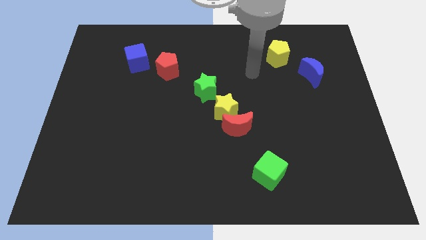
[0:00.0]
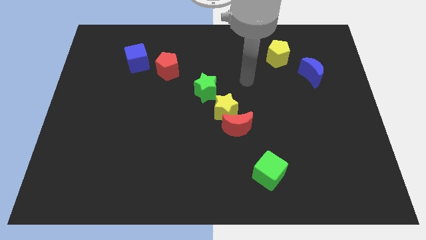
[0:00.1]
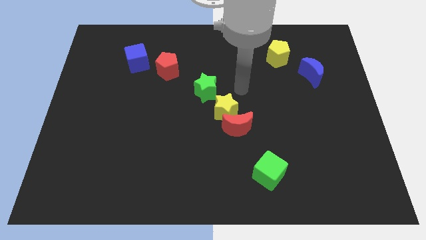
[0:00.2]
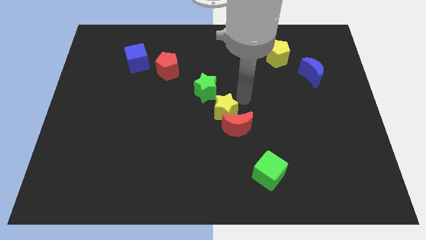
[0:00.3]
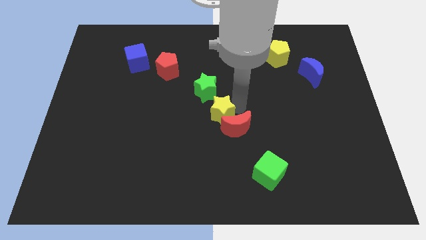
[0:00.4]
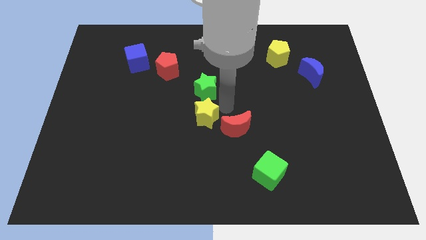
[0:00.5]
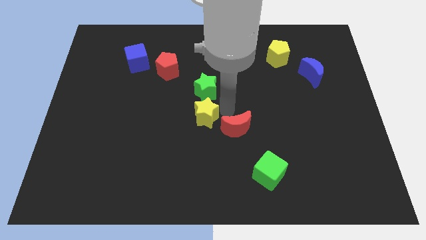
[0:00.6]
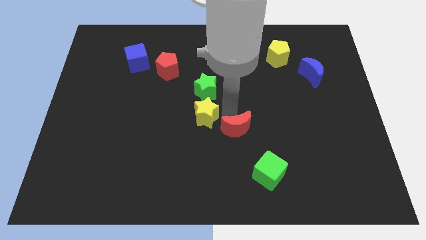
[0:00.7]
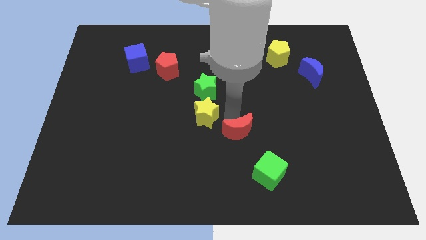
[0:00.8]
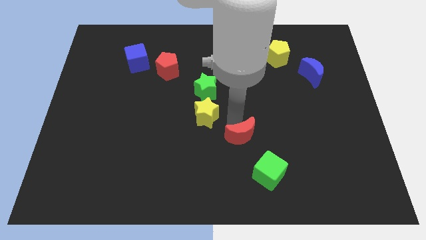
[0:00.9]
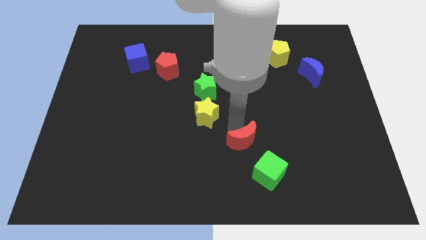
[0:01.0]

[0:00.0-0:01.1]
move the red moon away from the yellow star

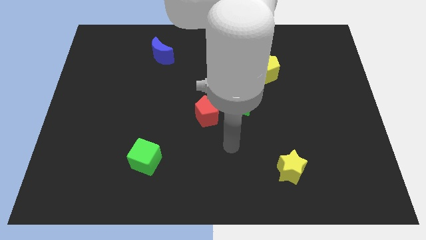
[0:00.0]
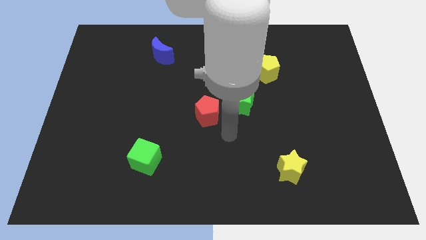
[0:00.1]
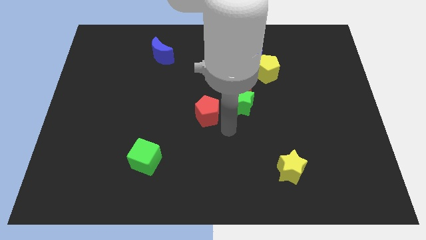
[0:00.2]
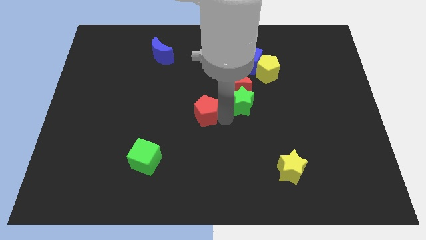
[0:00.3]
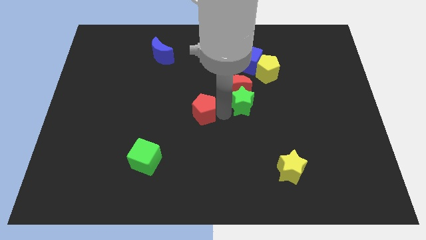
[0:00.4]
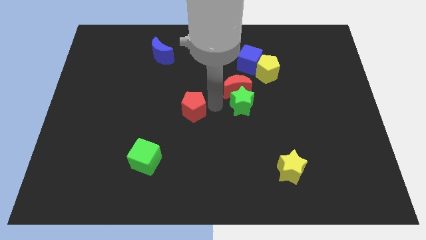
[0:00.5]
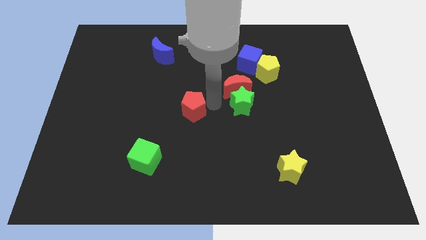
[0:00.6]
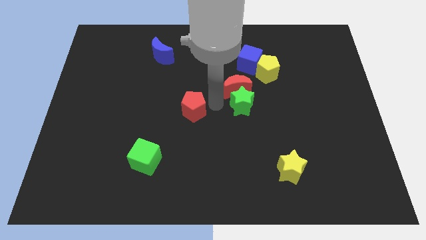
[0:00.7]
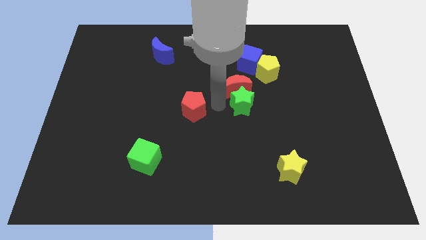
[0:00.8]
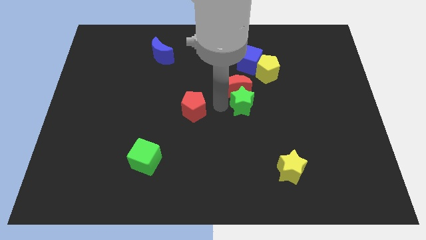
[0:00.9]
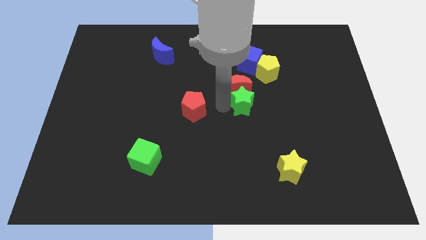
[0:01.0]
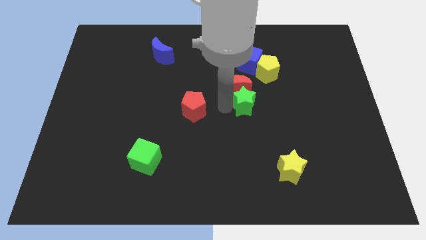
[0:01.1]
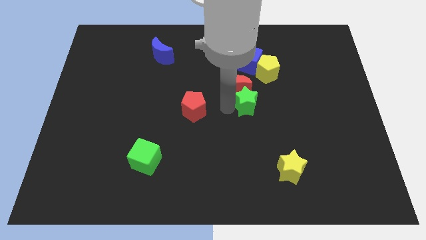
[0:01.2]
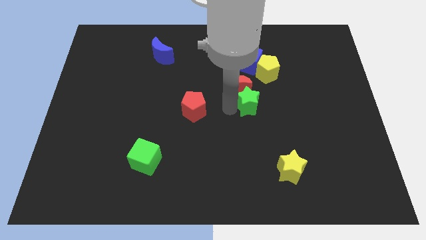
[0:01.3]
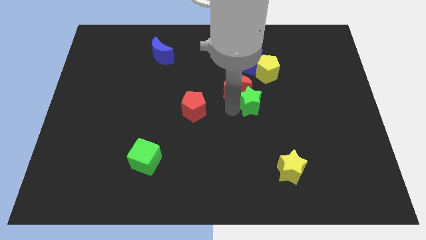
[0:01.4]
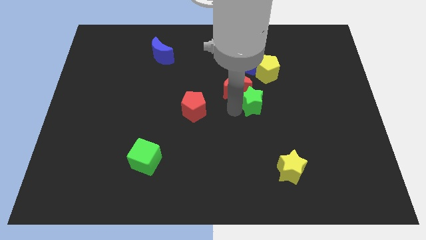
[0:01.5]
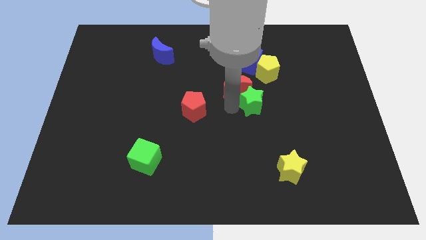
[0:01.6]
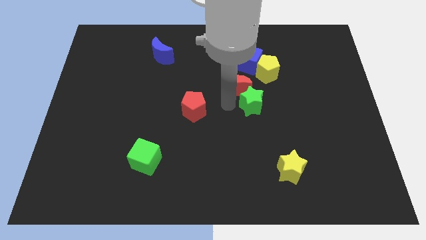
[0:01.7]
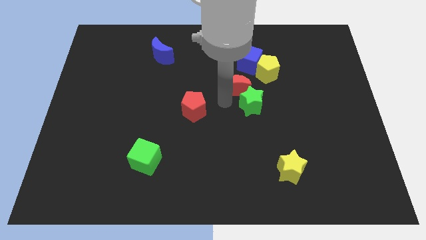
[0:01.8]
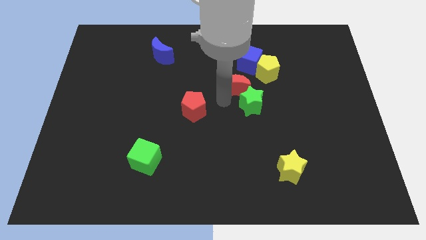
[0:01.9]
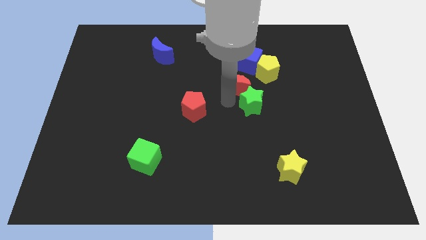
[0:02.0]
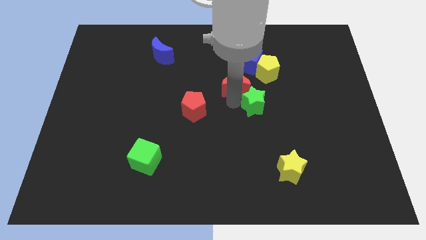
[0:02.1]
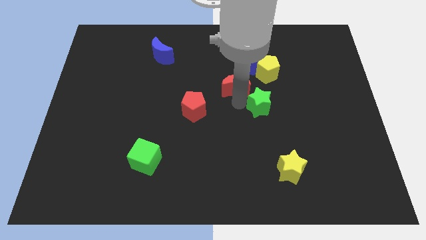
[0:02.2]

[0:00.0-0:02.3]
move the green star away from the red moon and red pentagon

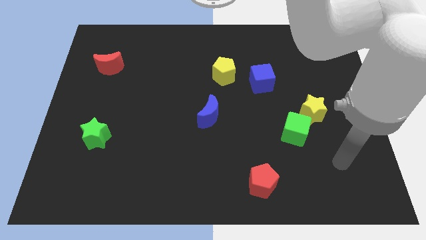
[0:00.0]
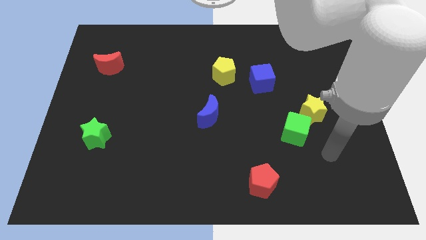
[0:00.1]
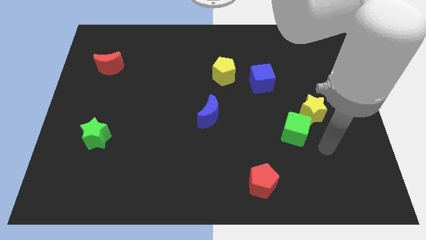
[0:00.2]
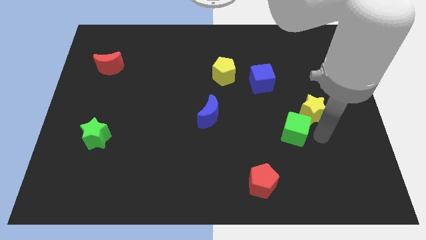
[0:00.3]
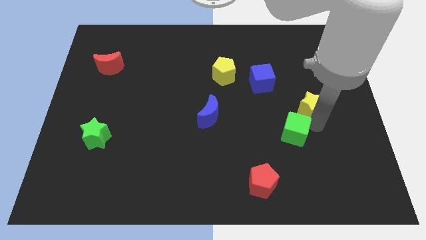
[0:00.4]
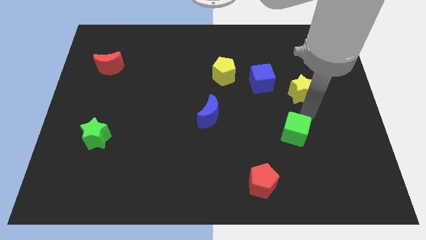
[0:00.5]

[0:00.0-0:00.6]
separate the green cube from the yellow star

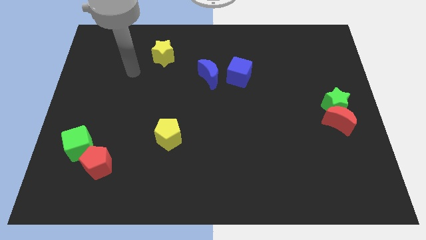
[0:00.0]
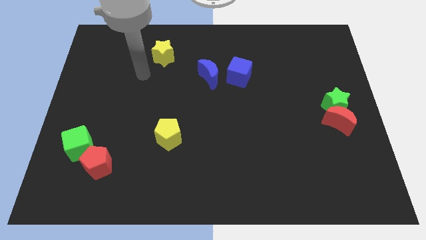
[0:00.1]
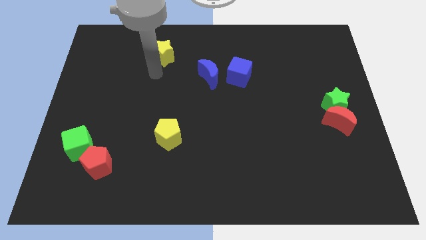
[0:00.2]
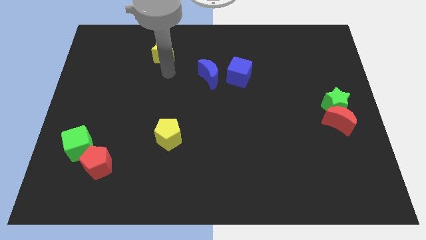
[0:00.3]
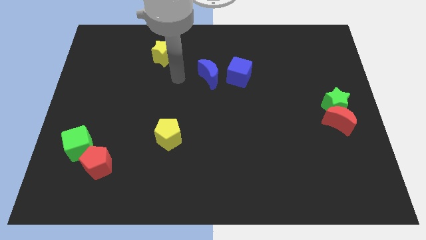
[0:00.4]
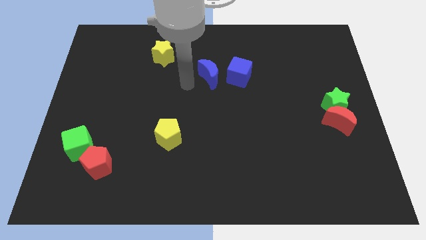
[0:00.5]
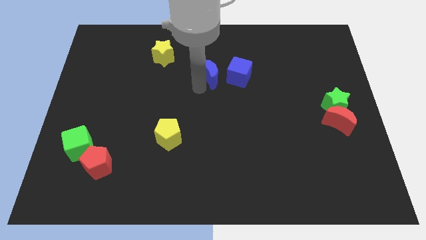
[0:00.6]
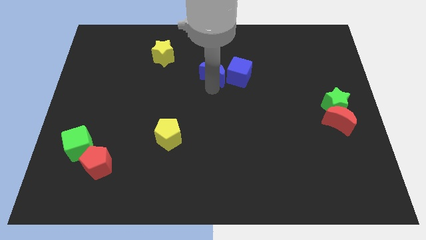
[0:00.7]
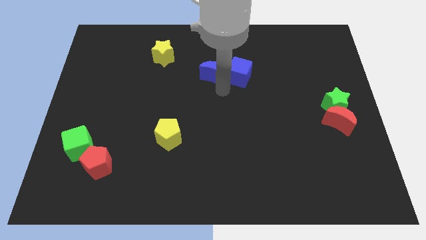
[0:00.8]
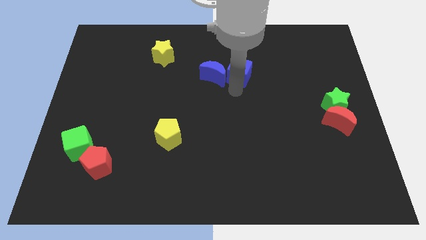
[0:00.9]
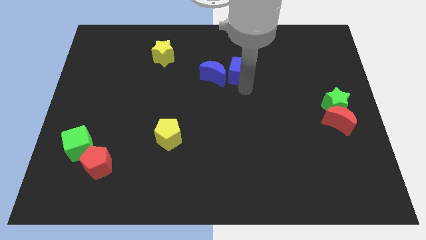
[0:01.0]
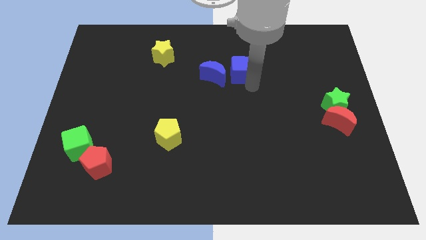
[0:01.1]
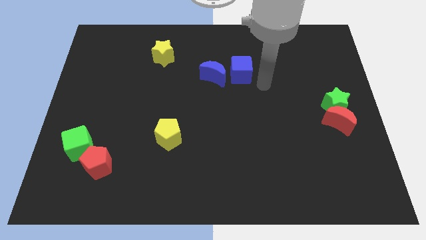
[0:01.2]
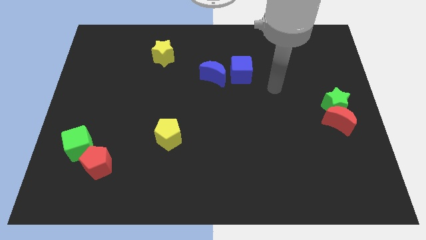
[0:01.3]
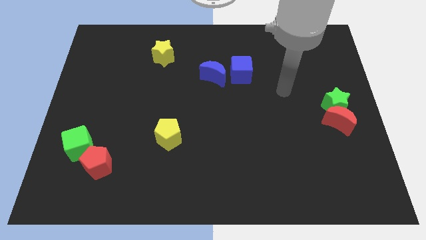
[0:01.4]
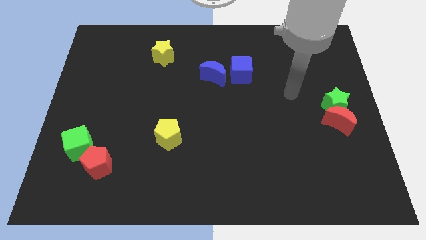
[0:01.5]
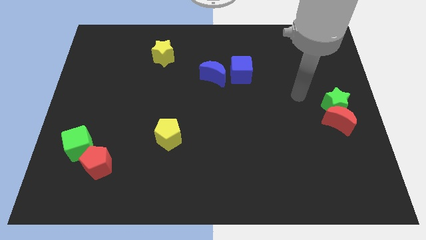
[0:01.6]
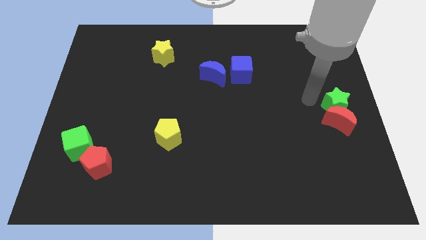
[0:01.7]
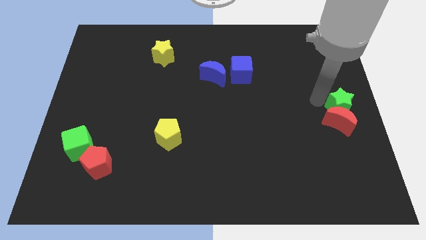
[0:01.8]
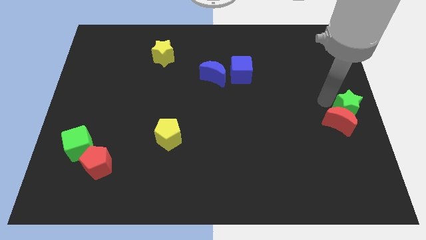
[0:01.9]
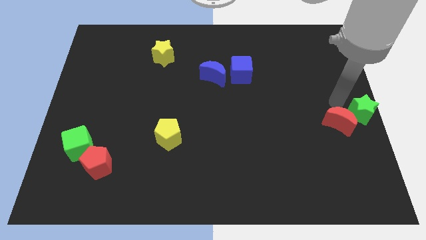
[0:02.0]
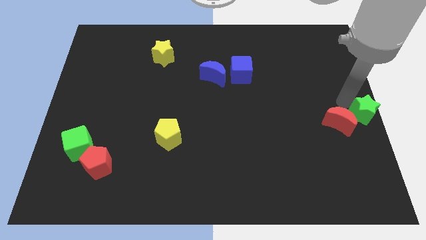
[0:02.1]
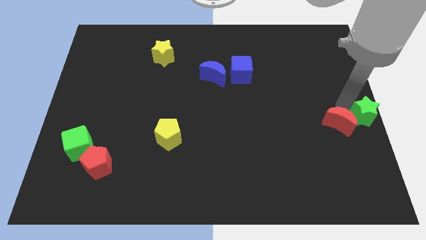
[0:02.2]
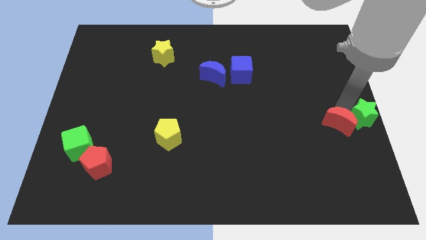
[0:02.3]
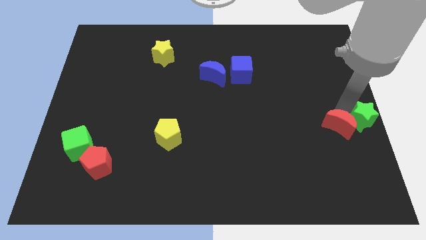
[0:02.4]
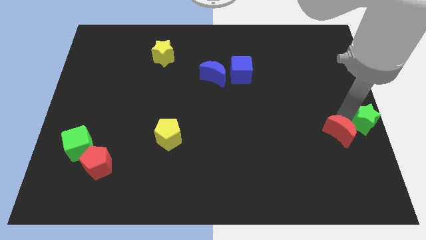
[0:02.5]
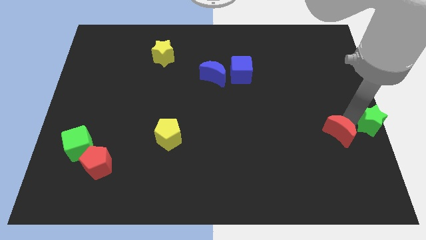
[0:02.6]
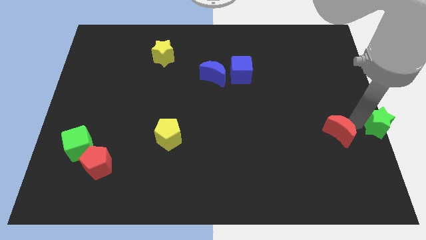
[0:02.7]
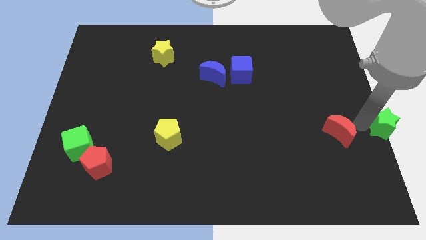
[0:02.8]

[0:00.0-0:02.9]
pull the red moon apart from the green star

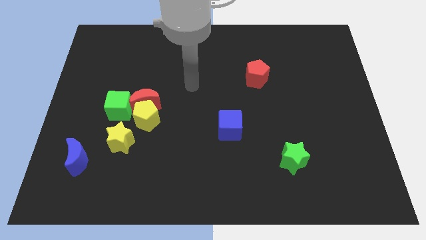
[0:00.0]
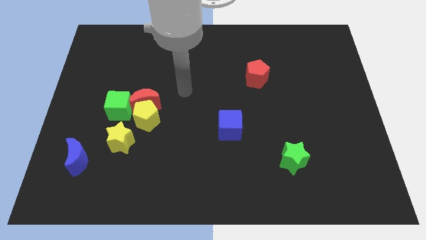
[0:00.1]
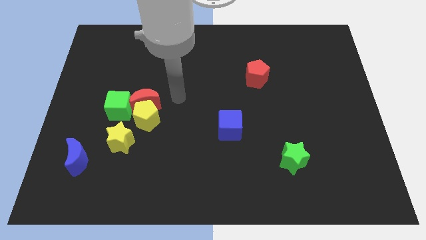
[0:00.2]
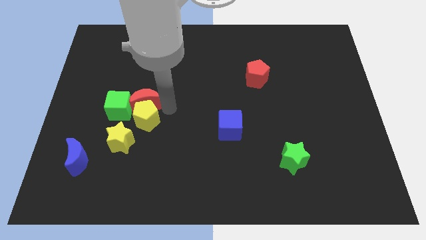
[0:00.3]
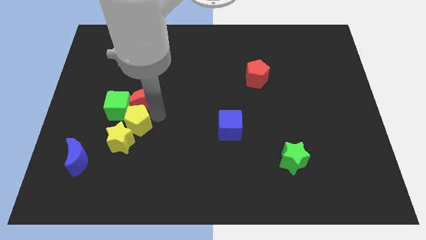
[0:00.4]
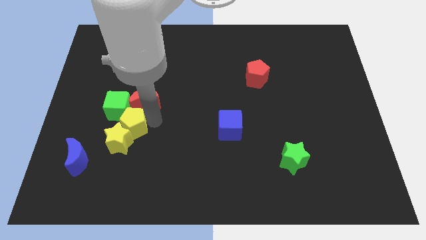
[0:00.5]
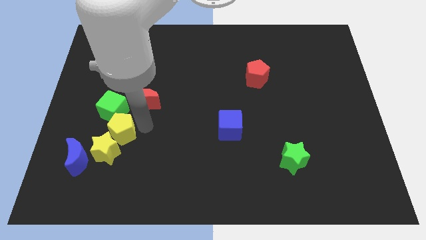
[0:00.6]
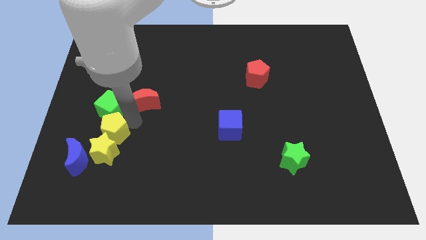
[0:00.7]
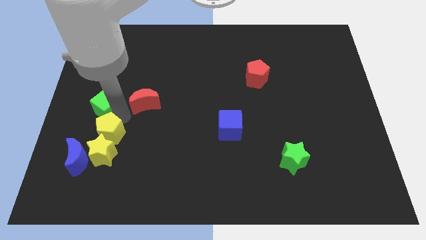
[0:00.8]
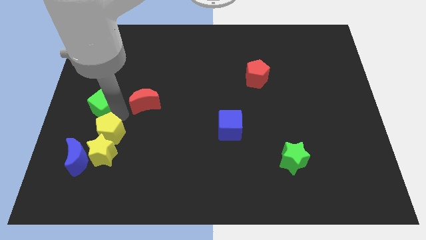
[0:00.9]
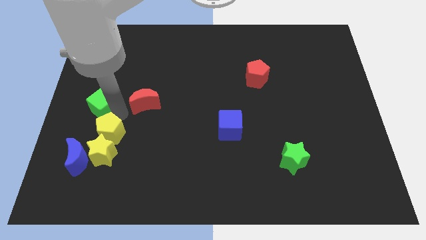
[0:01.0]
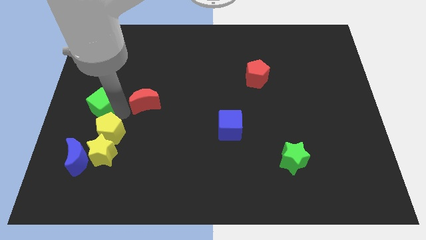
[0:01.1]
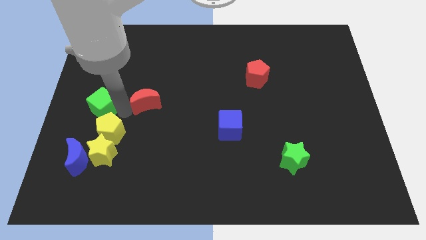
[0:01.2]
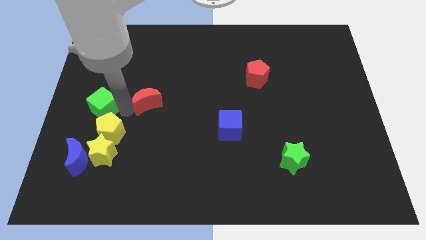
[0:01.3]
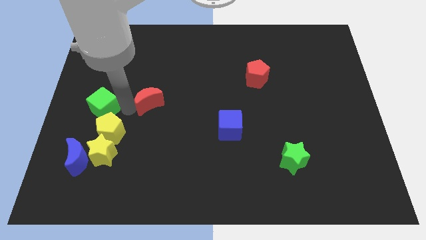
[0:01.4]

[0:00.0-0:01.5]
move the red moon away from the yellow pentagon and green cube

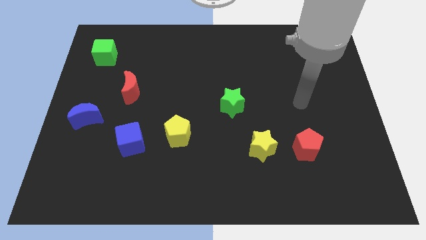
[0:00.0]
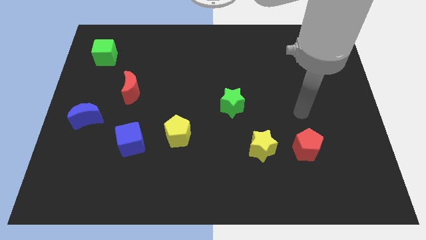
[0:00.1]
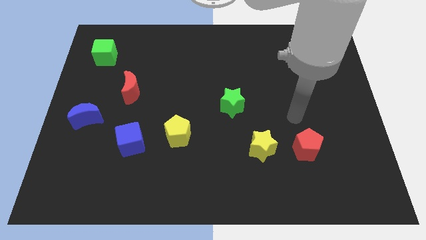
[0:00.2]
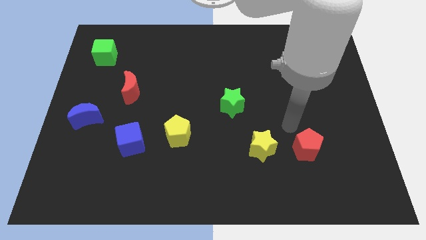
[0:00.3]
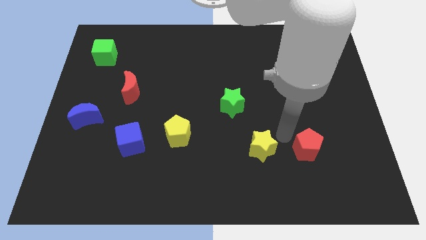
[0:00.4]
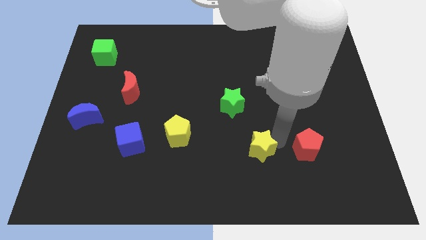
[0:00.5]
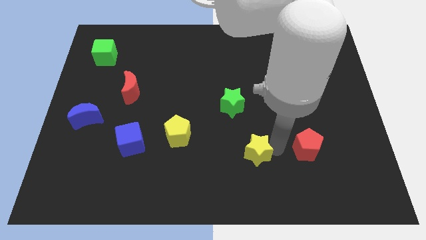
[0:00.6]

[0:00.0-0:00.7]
separate the red pentagon from the yellow star

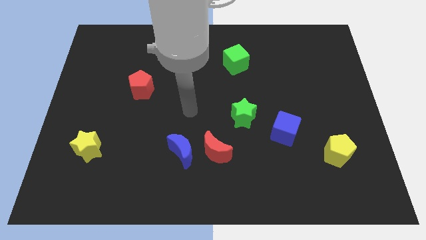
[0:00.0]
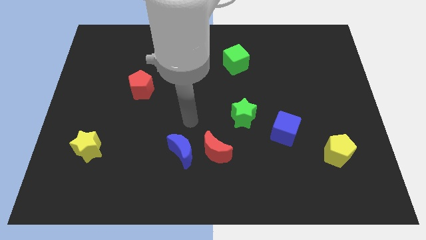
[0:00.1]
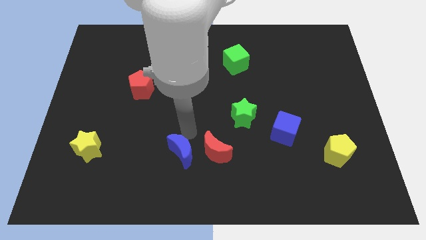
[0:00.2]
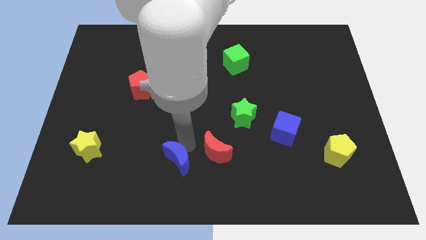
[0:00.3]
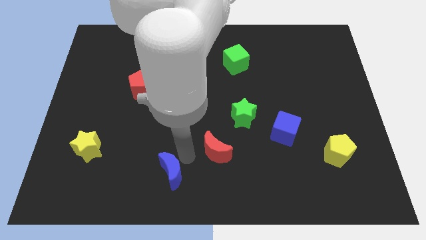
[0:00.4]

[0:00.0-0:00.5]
separate the red moon from the blue moon
